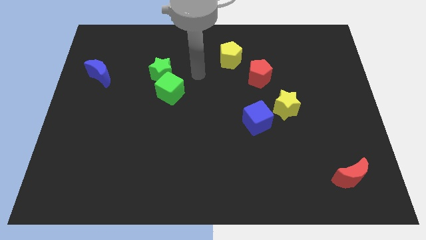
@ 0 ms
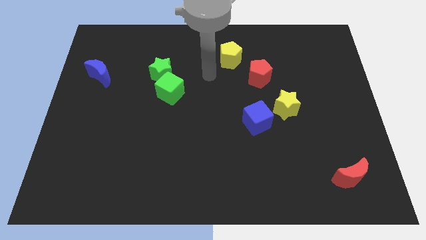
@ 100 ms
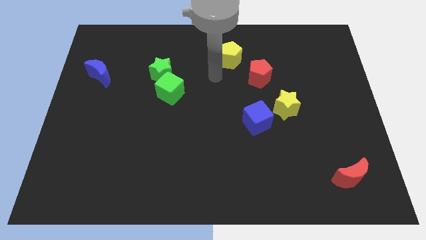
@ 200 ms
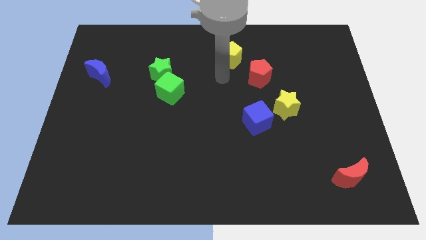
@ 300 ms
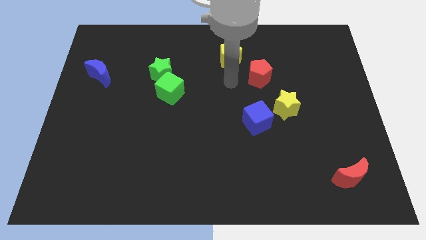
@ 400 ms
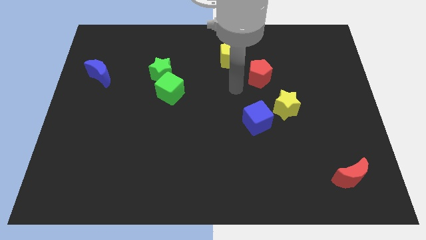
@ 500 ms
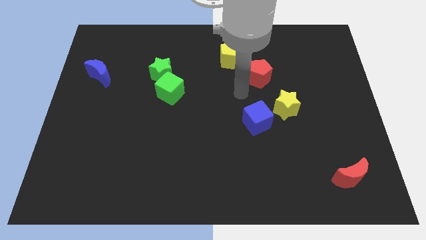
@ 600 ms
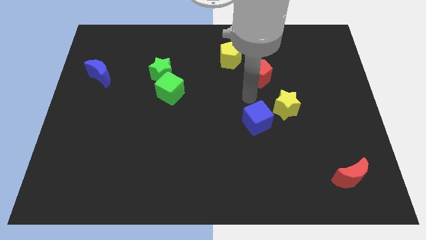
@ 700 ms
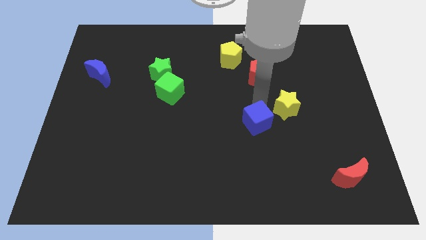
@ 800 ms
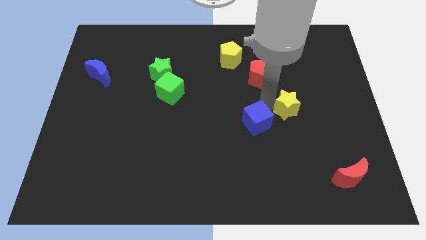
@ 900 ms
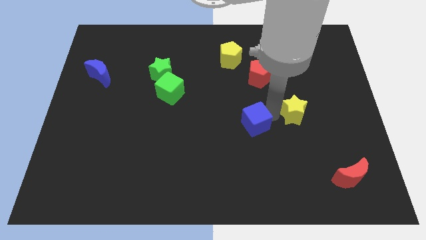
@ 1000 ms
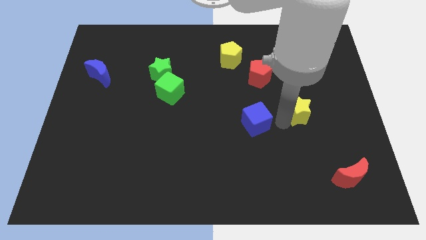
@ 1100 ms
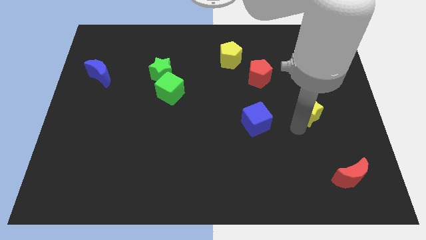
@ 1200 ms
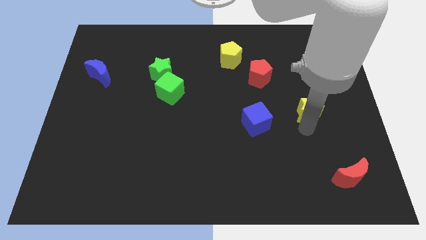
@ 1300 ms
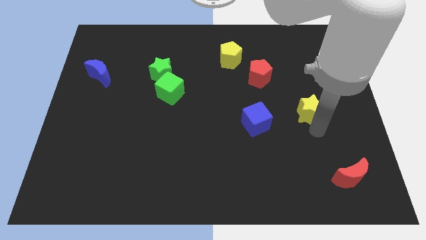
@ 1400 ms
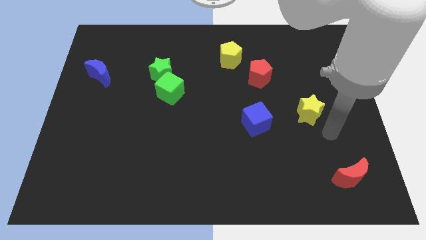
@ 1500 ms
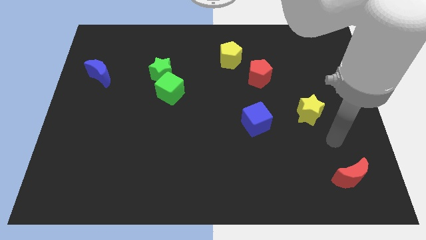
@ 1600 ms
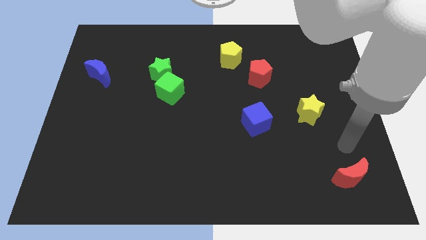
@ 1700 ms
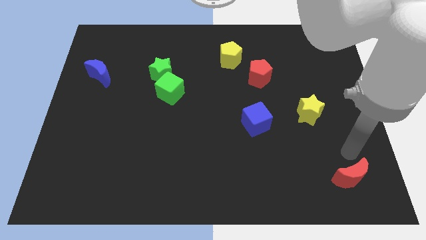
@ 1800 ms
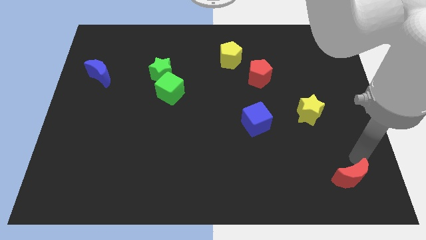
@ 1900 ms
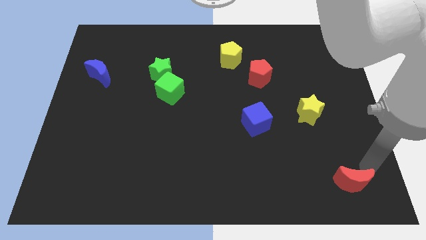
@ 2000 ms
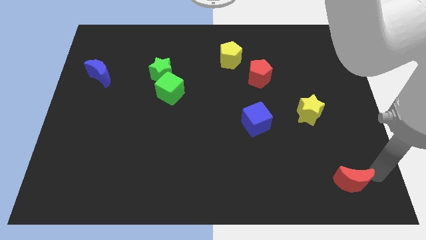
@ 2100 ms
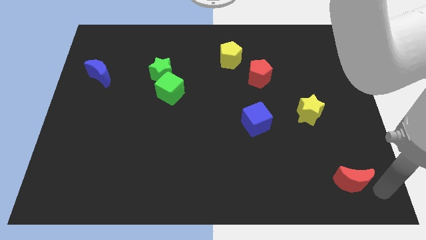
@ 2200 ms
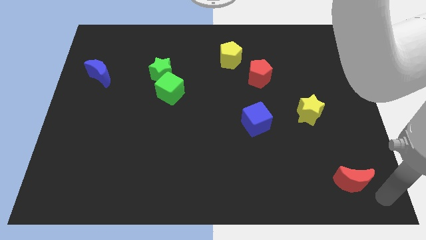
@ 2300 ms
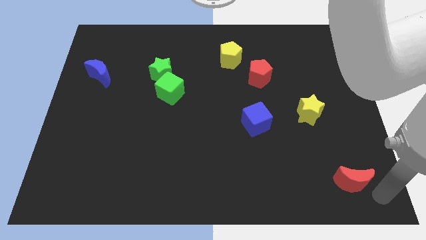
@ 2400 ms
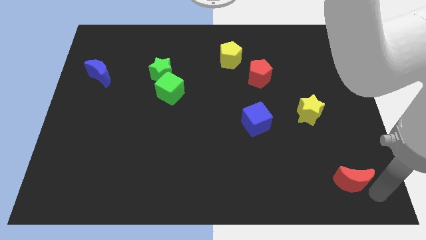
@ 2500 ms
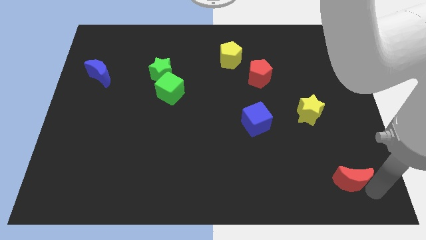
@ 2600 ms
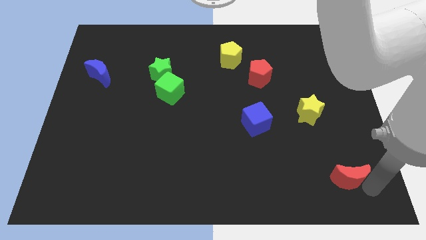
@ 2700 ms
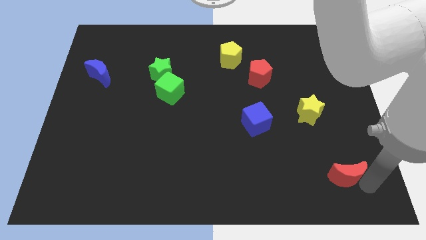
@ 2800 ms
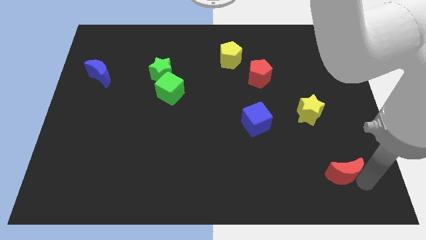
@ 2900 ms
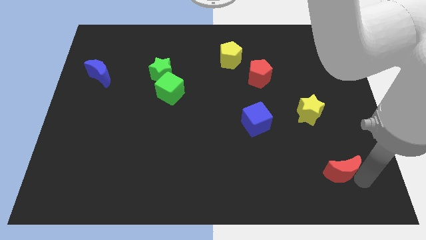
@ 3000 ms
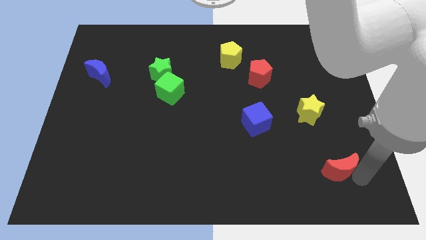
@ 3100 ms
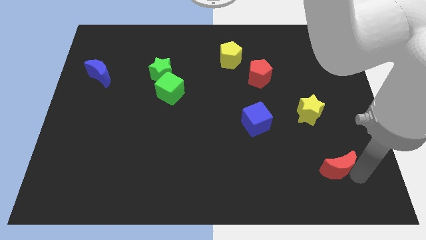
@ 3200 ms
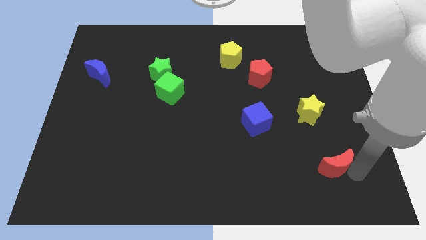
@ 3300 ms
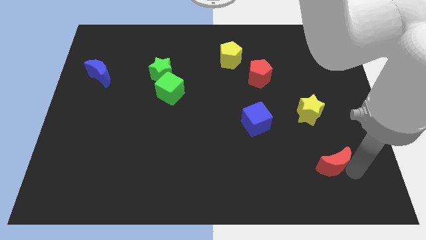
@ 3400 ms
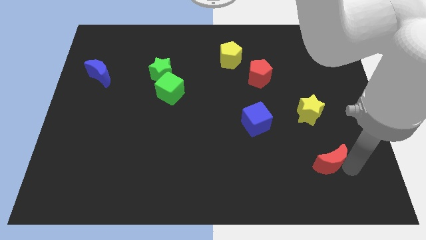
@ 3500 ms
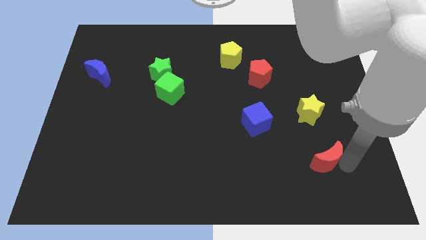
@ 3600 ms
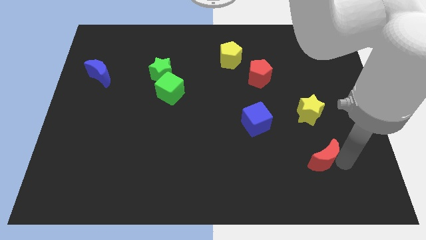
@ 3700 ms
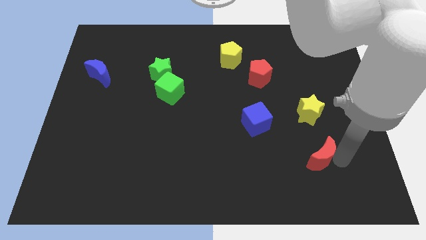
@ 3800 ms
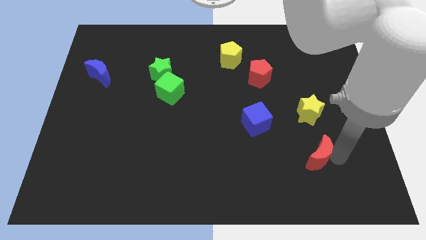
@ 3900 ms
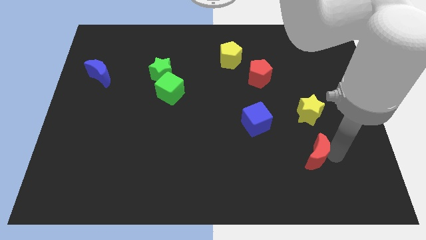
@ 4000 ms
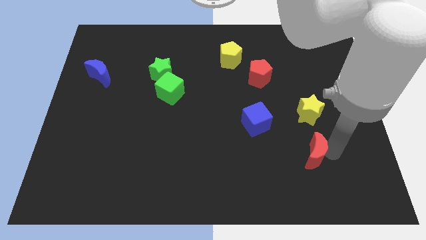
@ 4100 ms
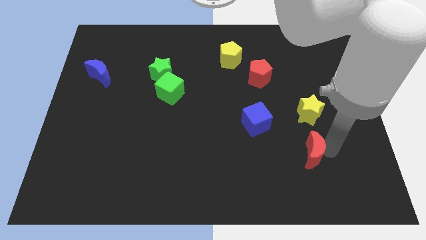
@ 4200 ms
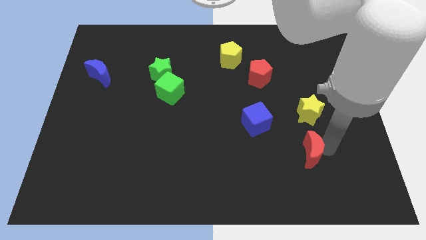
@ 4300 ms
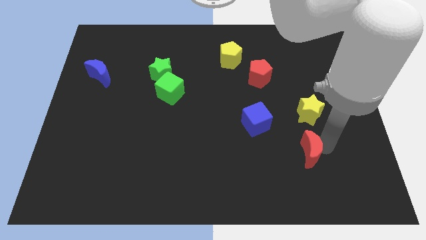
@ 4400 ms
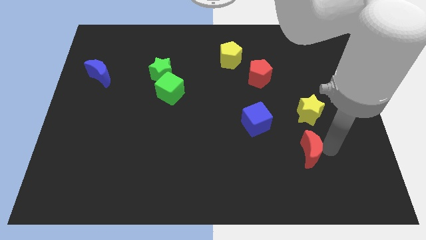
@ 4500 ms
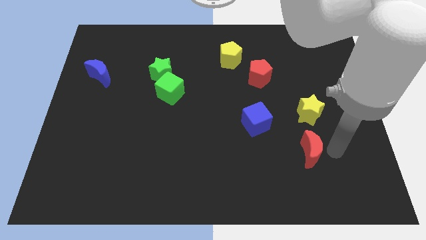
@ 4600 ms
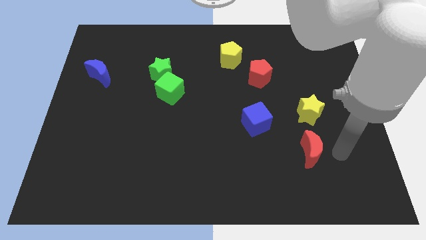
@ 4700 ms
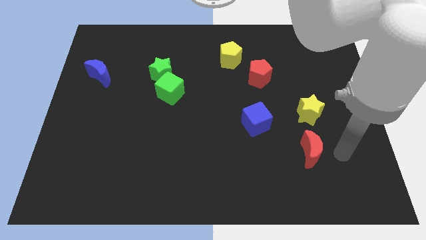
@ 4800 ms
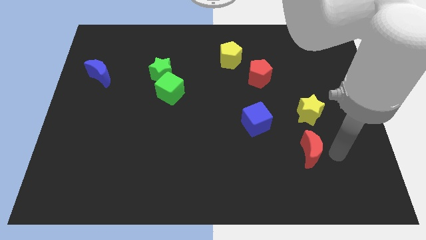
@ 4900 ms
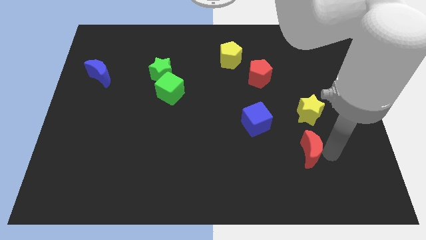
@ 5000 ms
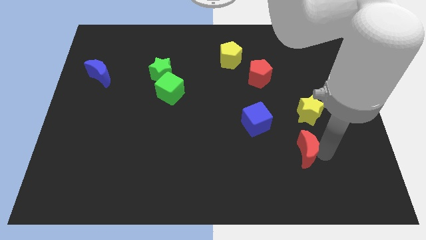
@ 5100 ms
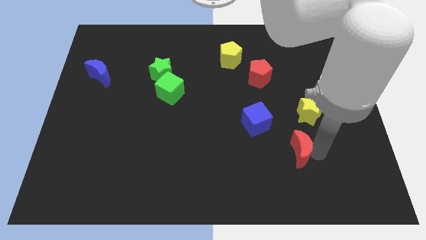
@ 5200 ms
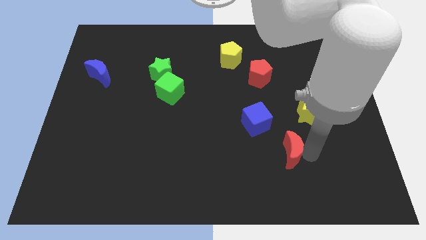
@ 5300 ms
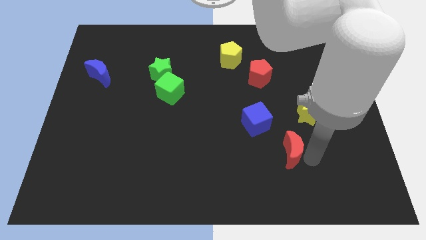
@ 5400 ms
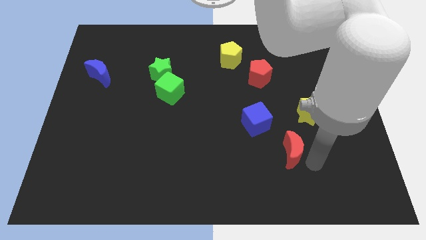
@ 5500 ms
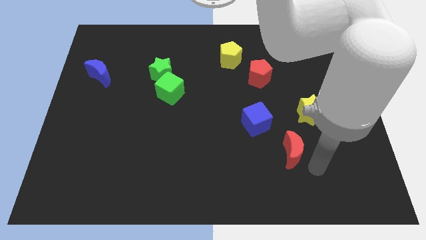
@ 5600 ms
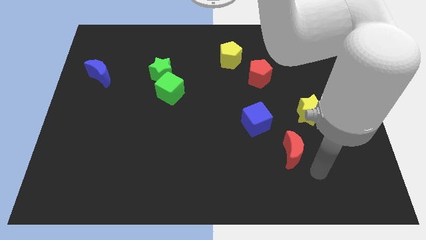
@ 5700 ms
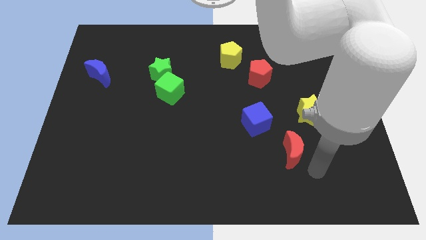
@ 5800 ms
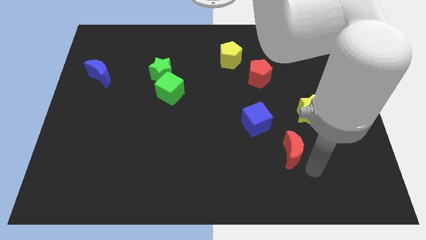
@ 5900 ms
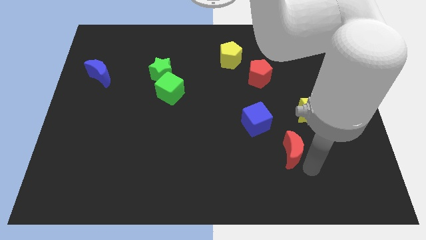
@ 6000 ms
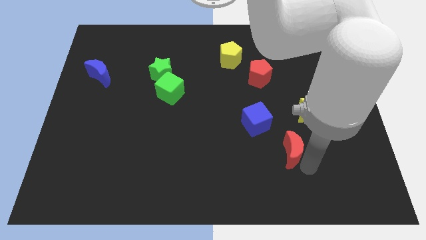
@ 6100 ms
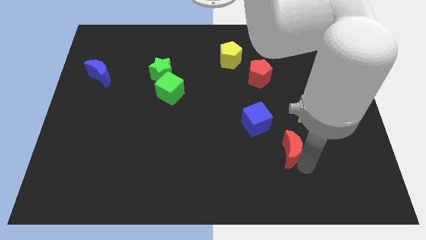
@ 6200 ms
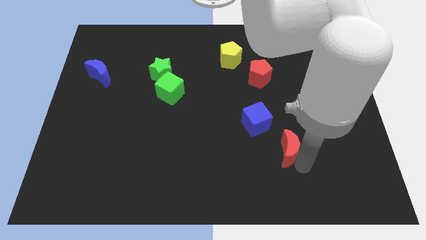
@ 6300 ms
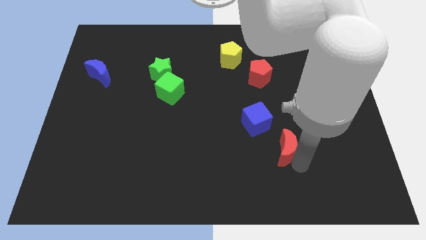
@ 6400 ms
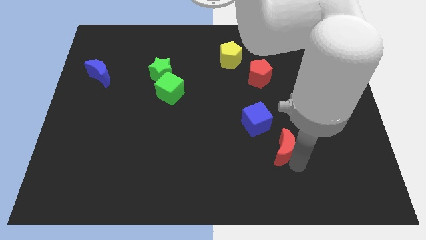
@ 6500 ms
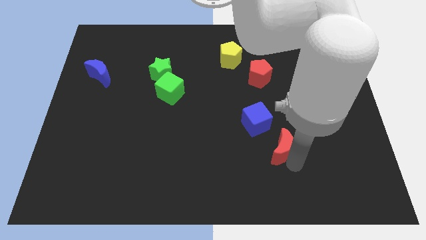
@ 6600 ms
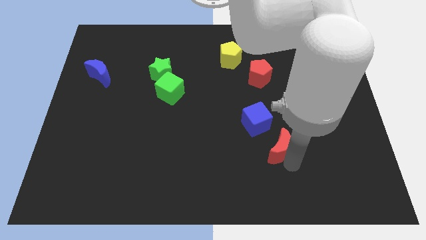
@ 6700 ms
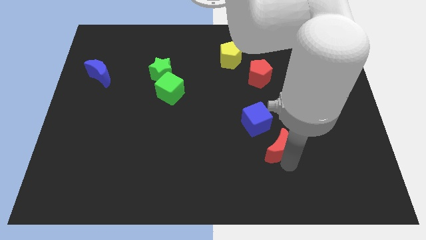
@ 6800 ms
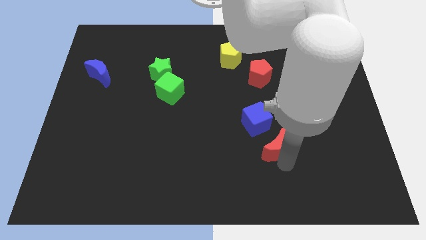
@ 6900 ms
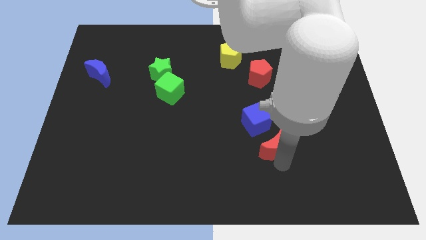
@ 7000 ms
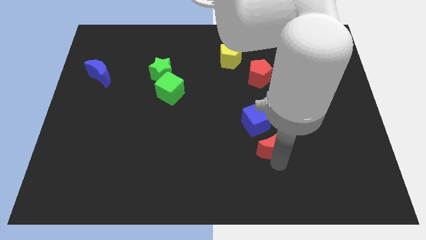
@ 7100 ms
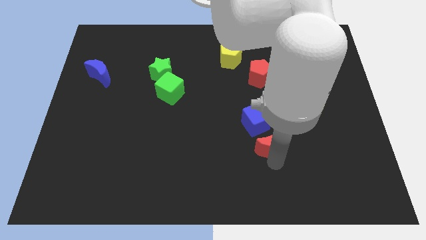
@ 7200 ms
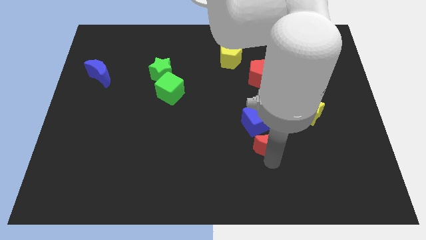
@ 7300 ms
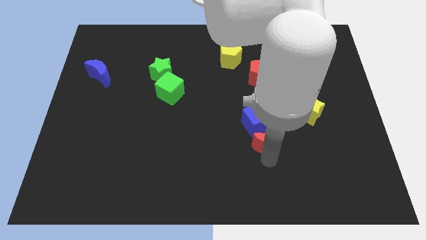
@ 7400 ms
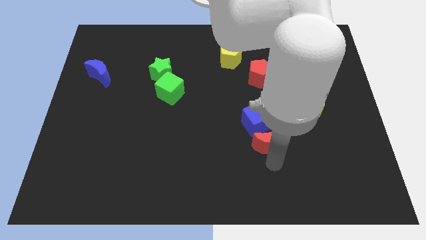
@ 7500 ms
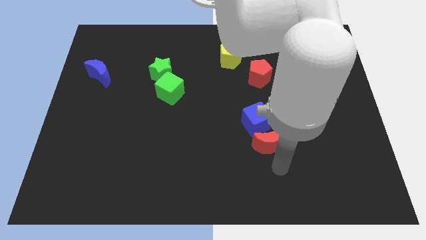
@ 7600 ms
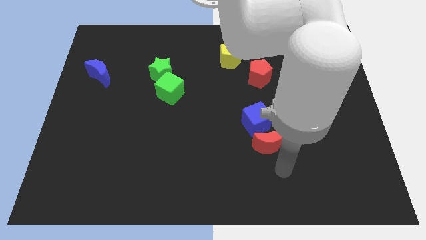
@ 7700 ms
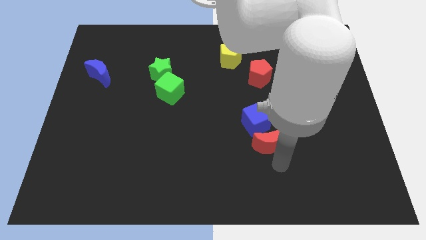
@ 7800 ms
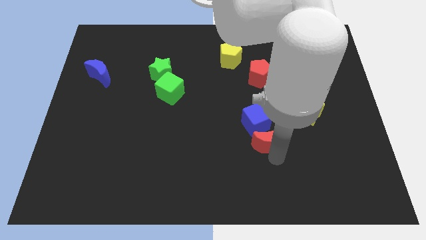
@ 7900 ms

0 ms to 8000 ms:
move the red moon close to the blue cube
